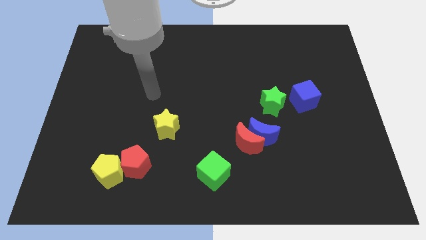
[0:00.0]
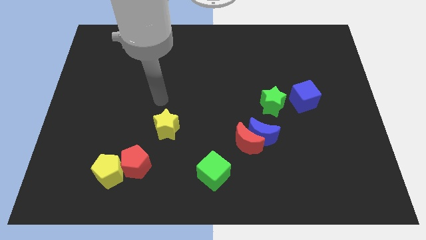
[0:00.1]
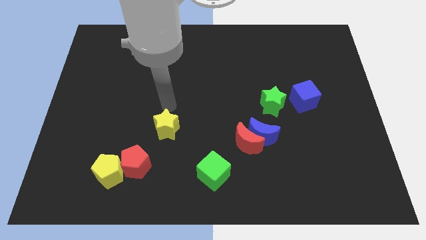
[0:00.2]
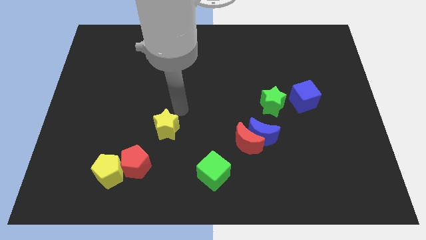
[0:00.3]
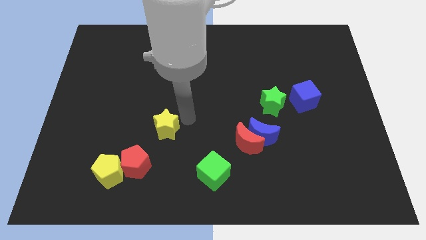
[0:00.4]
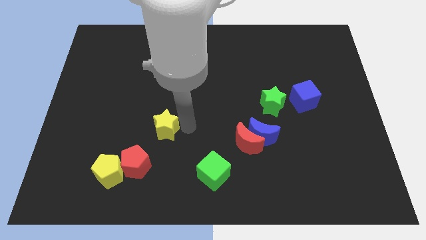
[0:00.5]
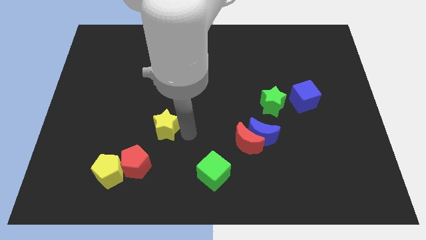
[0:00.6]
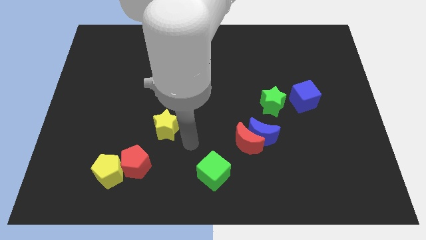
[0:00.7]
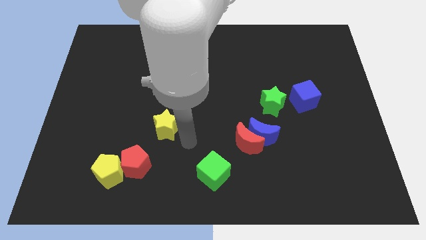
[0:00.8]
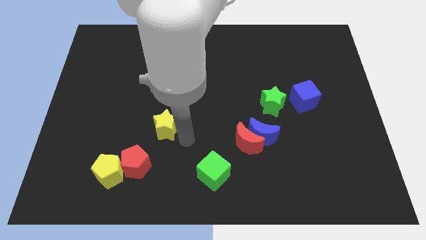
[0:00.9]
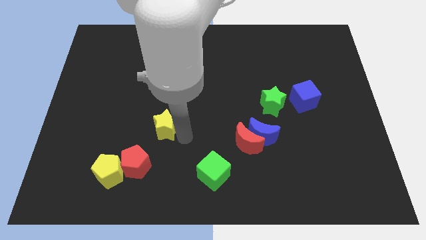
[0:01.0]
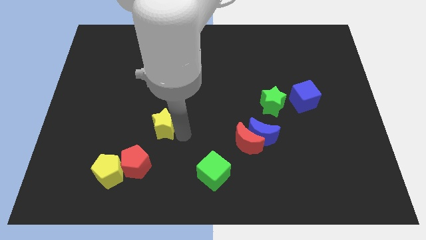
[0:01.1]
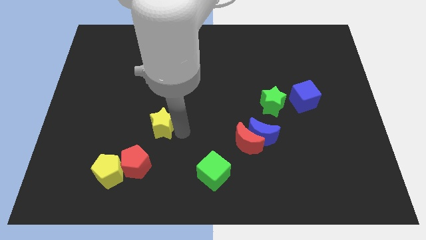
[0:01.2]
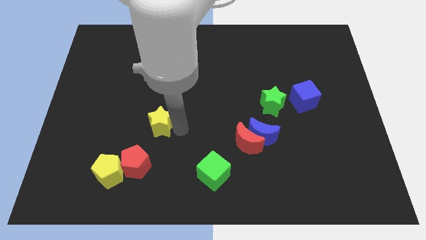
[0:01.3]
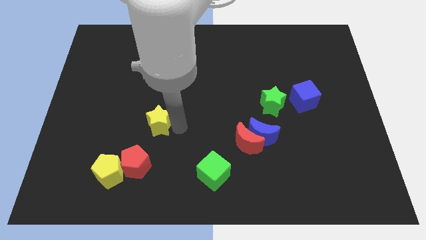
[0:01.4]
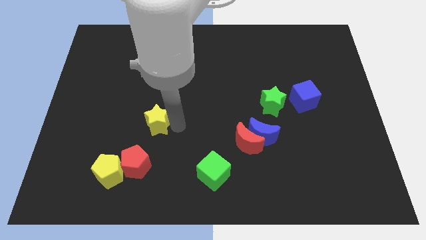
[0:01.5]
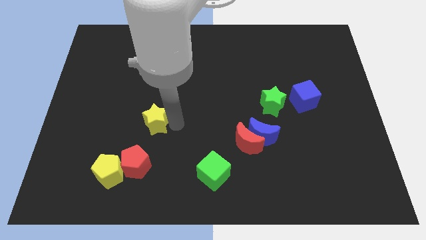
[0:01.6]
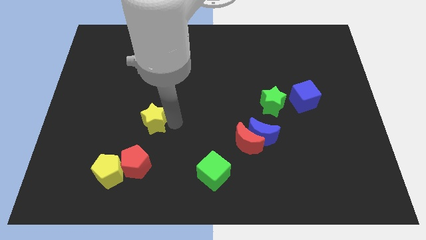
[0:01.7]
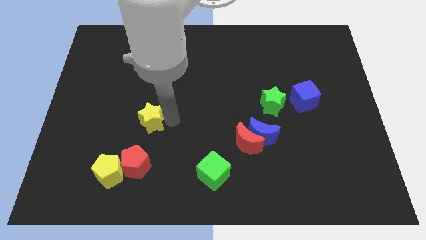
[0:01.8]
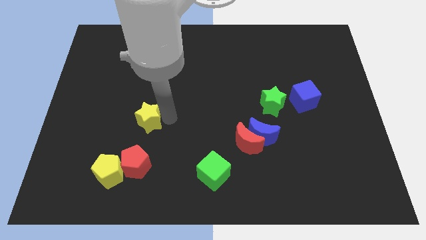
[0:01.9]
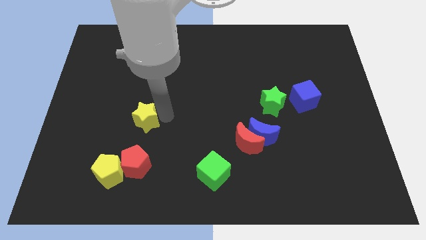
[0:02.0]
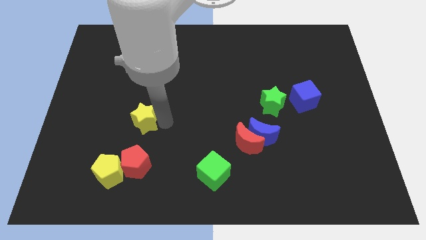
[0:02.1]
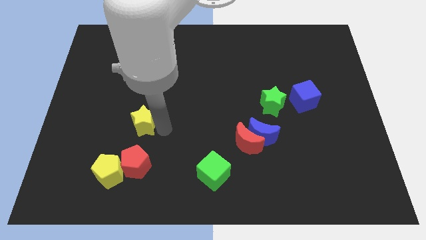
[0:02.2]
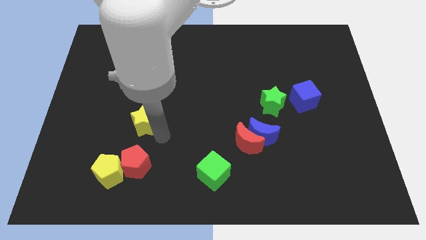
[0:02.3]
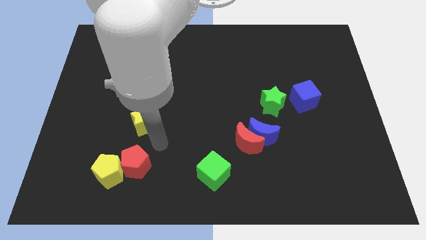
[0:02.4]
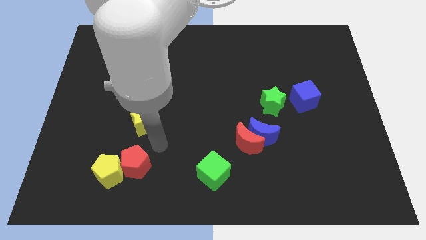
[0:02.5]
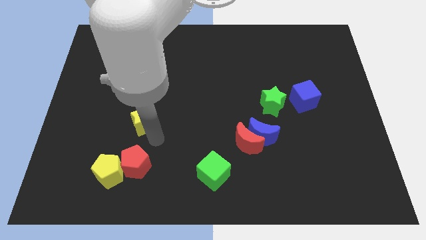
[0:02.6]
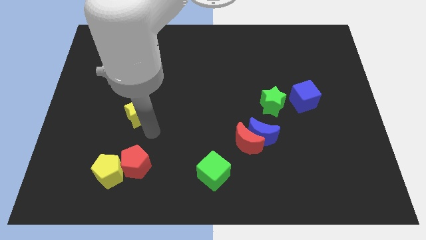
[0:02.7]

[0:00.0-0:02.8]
slightly push the yellow star up and then left

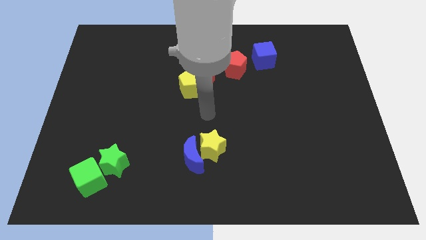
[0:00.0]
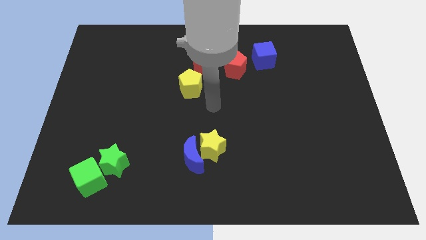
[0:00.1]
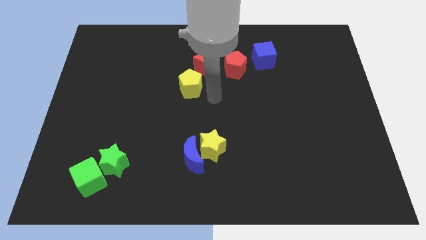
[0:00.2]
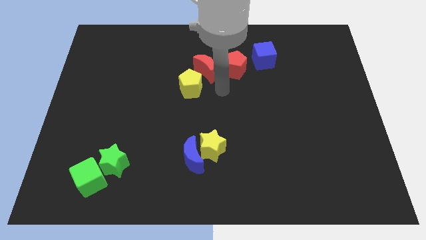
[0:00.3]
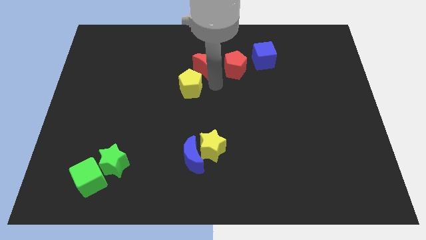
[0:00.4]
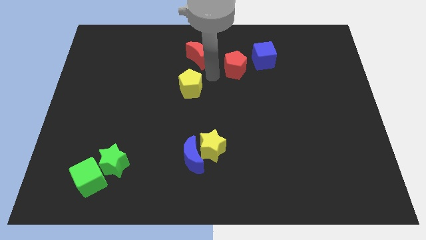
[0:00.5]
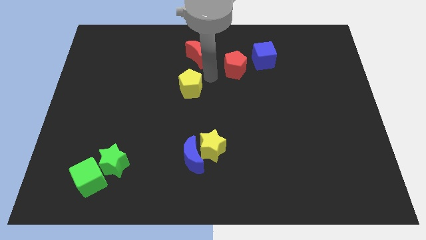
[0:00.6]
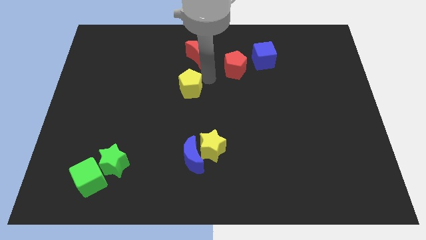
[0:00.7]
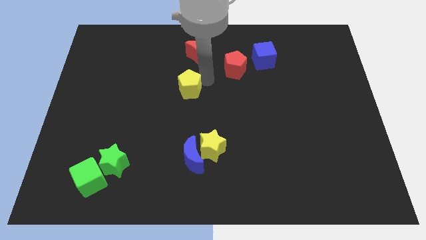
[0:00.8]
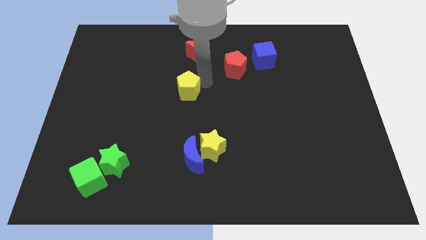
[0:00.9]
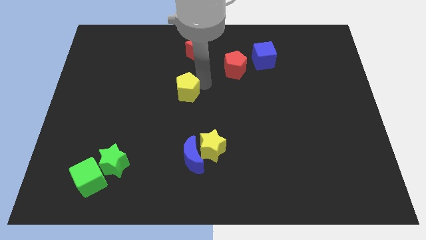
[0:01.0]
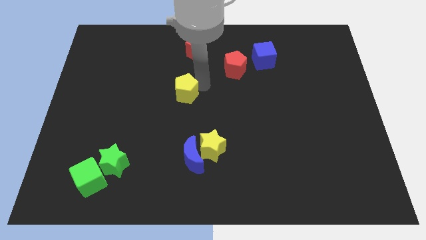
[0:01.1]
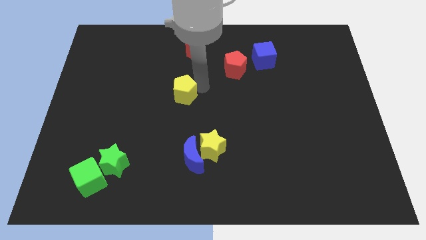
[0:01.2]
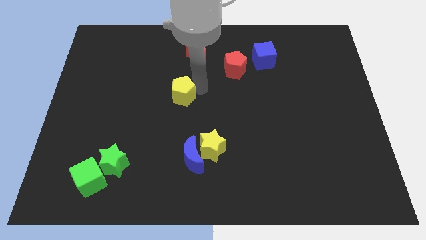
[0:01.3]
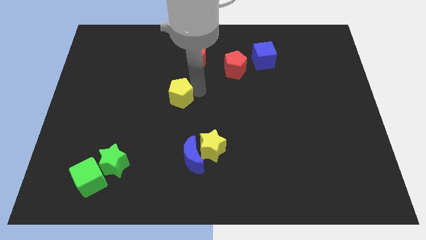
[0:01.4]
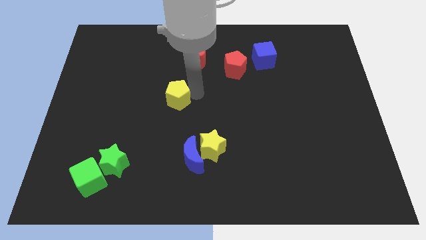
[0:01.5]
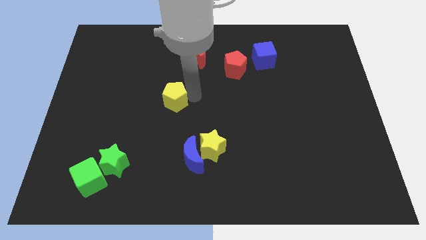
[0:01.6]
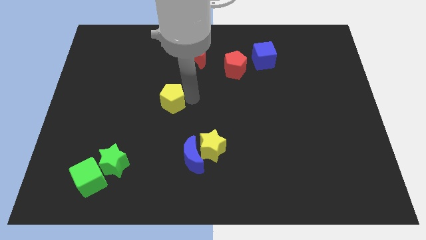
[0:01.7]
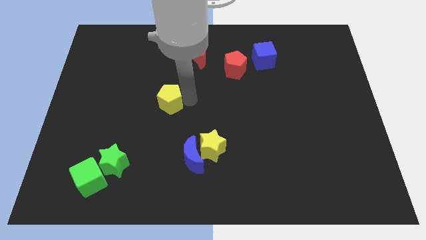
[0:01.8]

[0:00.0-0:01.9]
move the yellow pentagon a little bit downwards and left

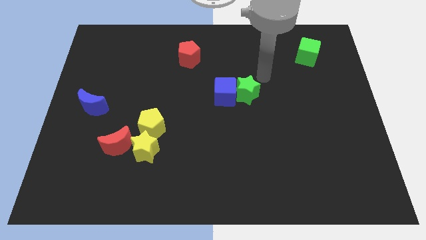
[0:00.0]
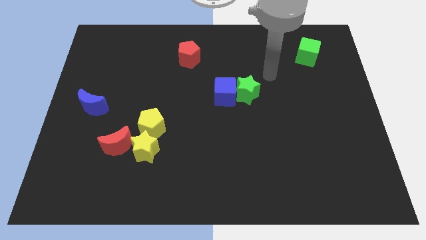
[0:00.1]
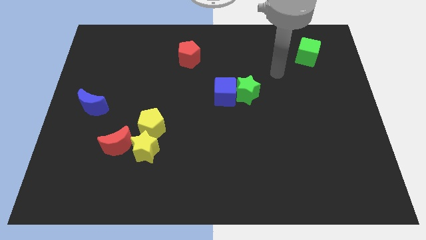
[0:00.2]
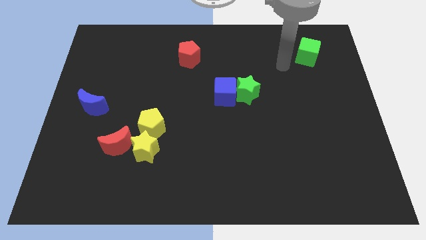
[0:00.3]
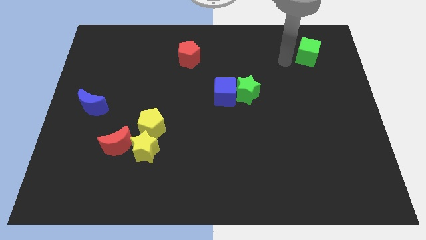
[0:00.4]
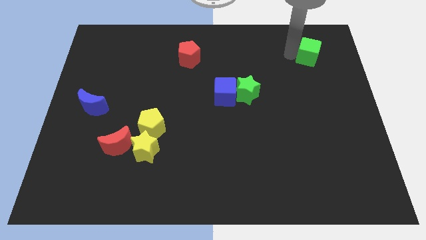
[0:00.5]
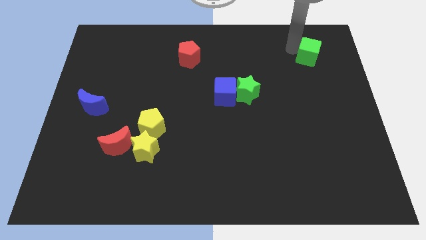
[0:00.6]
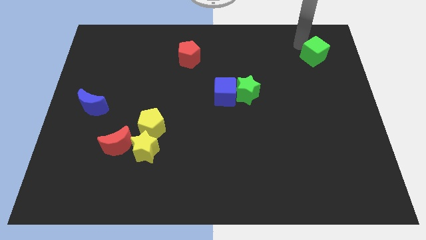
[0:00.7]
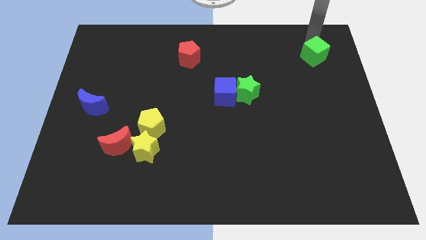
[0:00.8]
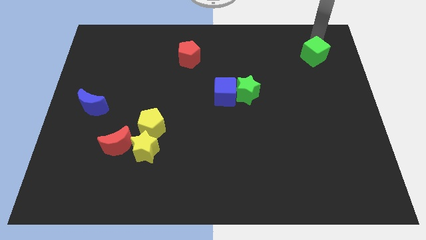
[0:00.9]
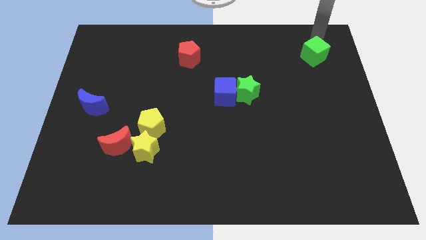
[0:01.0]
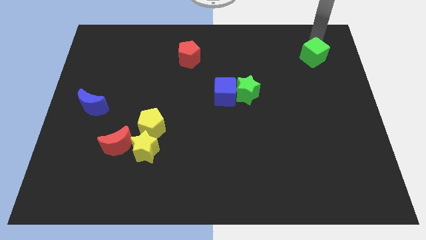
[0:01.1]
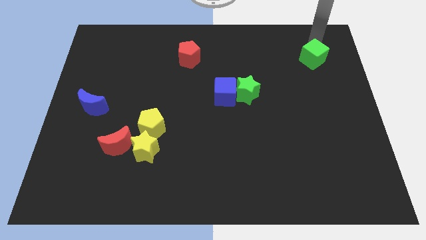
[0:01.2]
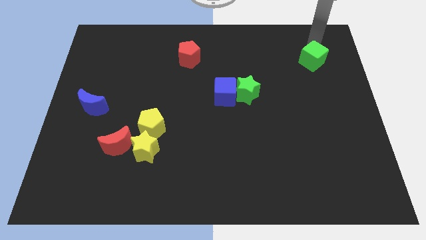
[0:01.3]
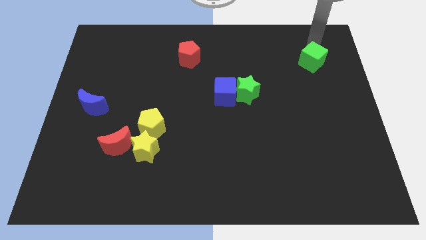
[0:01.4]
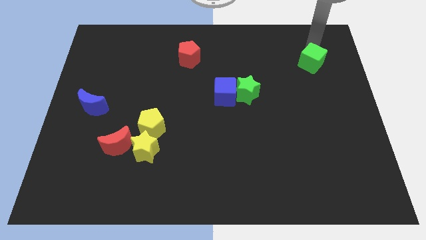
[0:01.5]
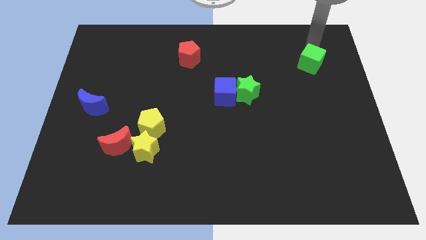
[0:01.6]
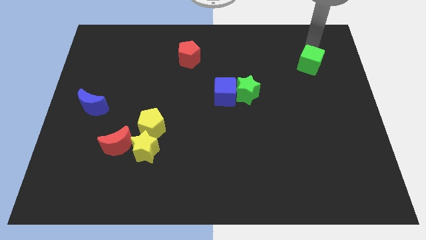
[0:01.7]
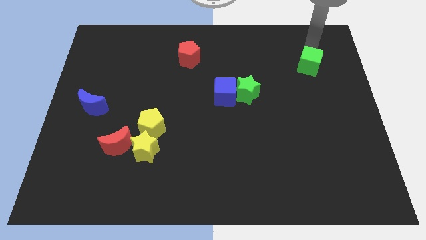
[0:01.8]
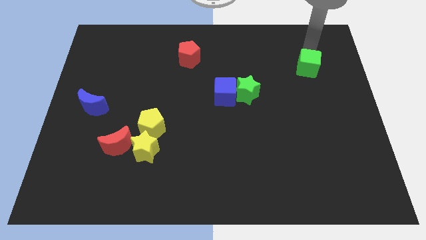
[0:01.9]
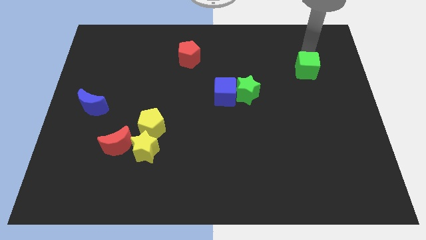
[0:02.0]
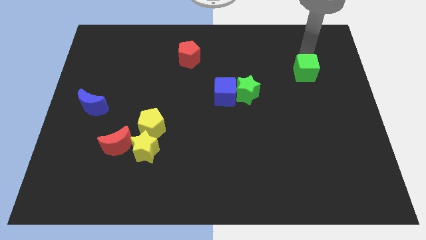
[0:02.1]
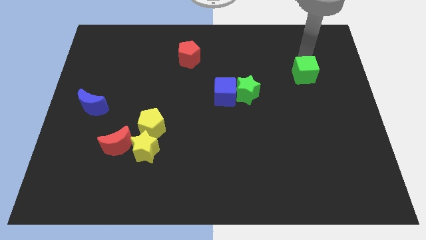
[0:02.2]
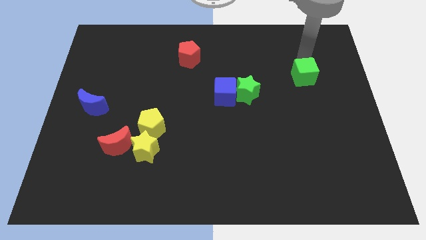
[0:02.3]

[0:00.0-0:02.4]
move the green cube downwards somewhat

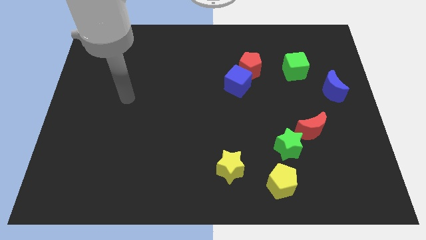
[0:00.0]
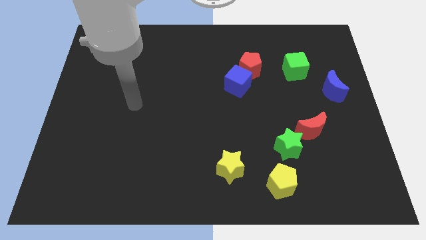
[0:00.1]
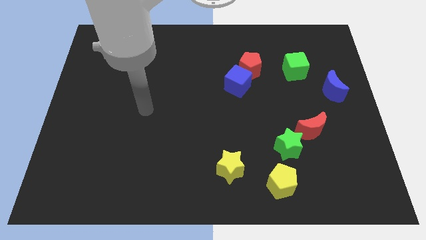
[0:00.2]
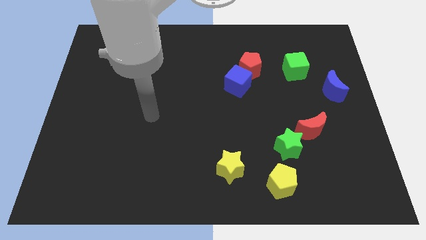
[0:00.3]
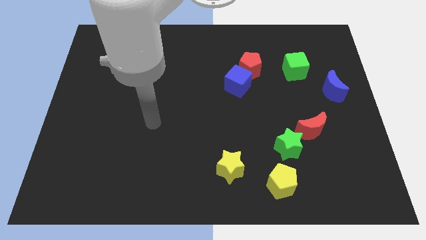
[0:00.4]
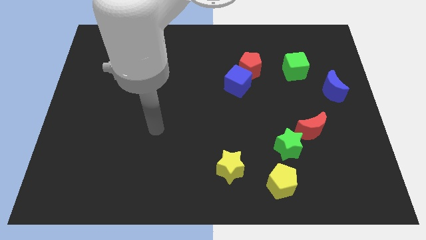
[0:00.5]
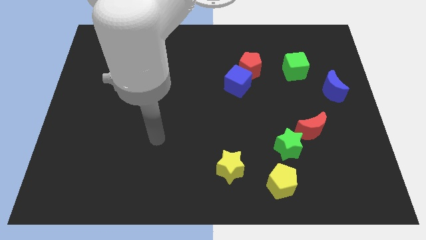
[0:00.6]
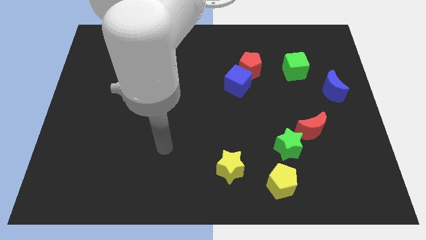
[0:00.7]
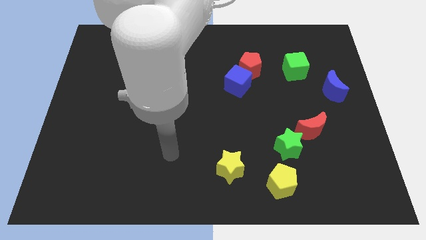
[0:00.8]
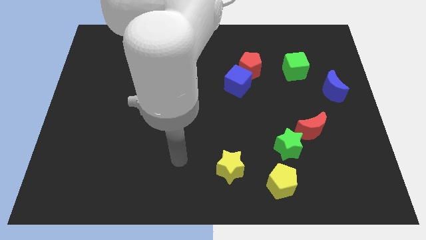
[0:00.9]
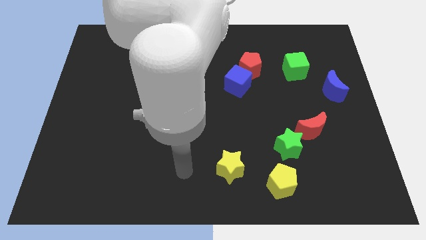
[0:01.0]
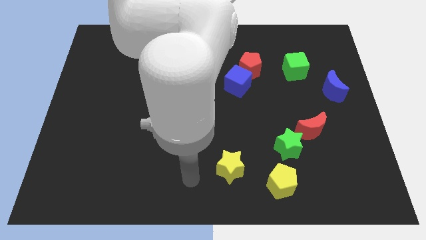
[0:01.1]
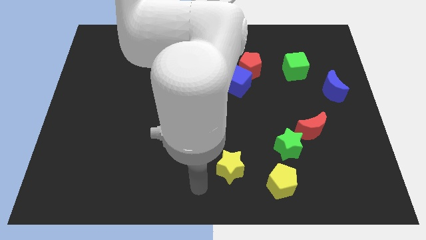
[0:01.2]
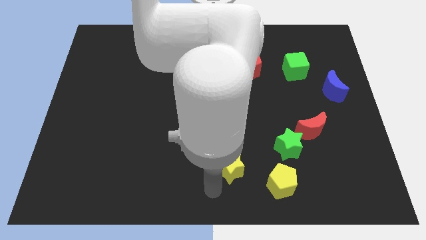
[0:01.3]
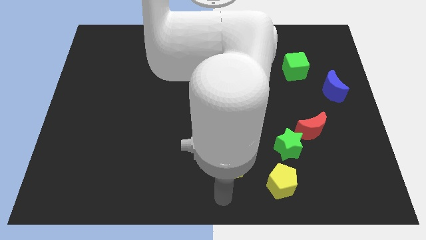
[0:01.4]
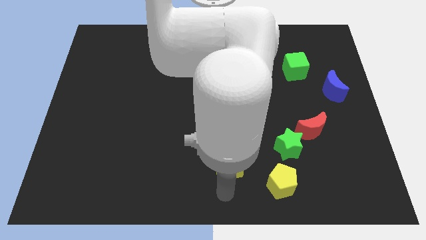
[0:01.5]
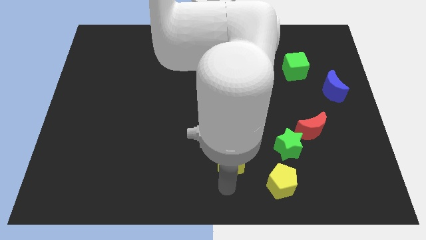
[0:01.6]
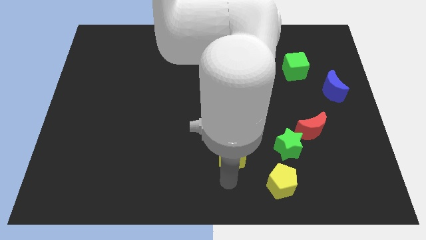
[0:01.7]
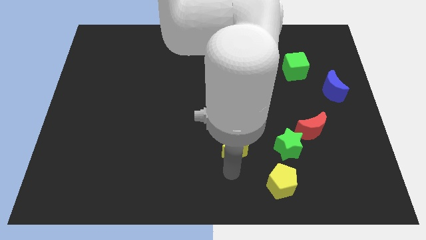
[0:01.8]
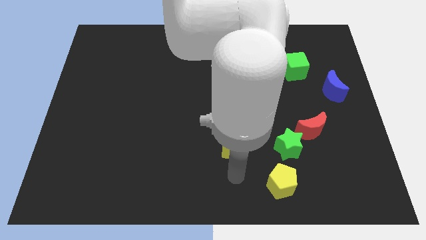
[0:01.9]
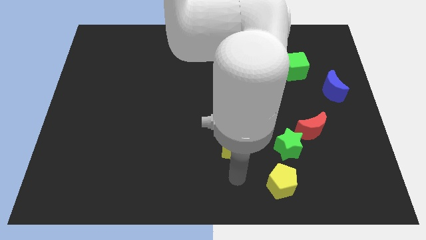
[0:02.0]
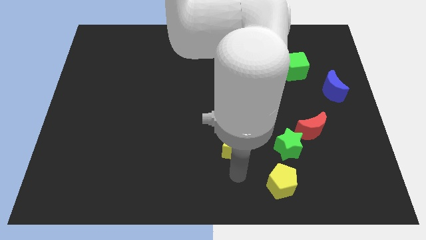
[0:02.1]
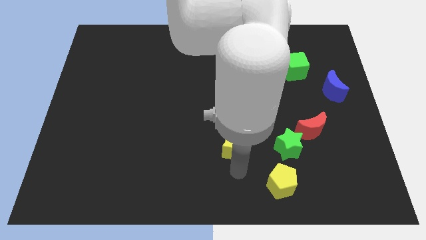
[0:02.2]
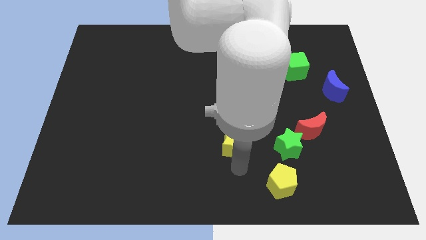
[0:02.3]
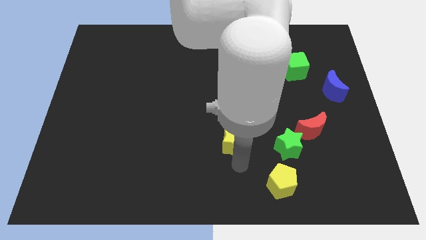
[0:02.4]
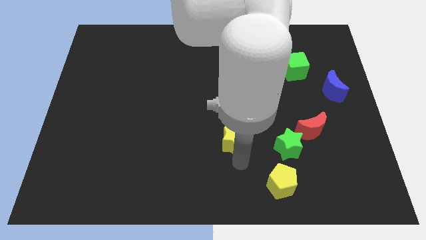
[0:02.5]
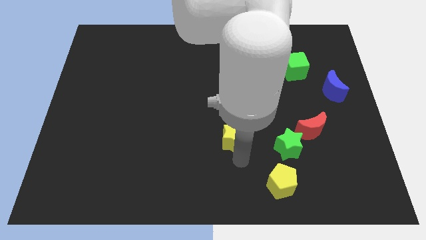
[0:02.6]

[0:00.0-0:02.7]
slightly push the yellow star up
